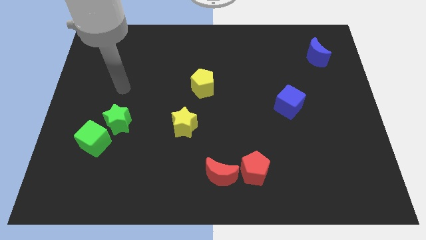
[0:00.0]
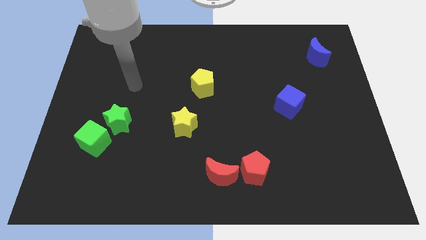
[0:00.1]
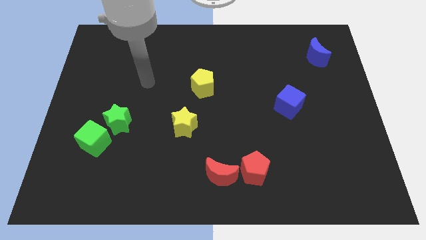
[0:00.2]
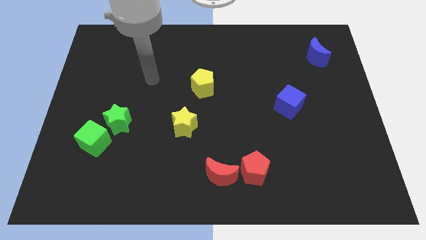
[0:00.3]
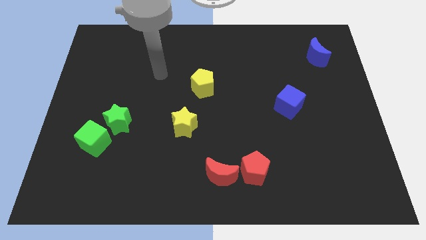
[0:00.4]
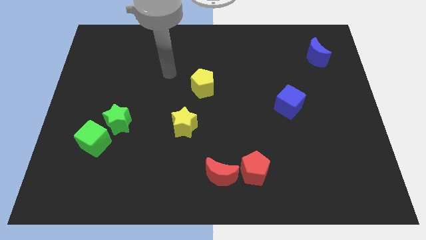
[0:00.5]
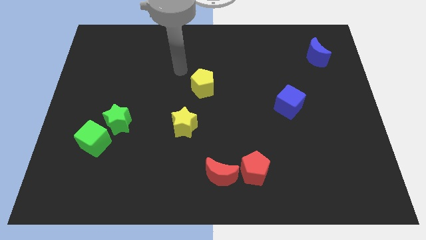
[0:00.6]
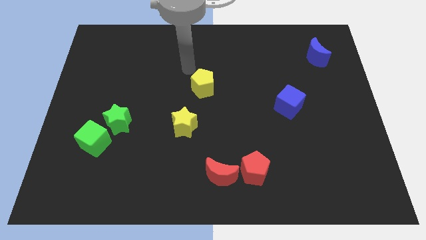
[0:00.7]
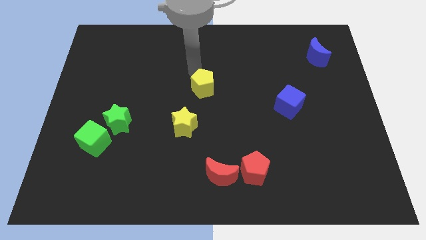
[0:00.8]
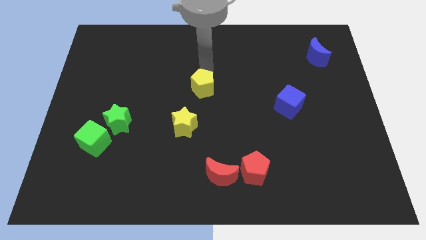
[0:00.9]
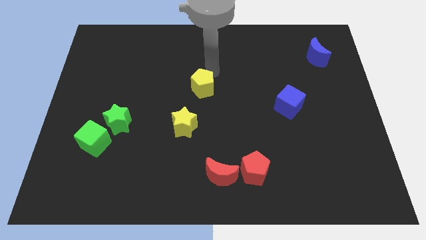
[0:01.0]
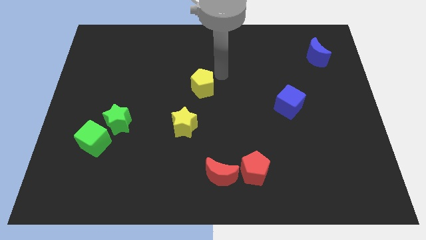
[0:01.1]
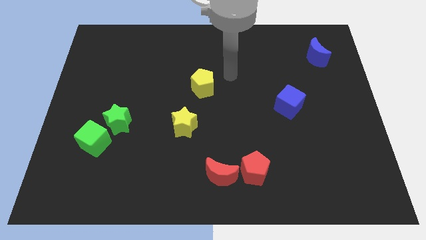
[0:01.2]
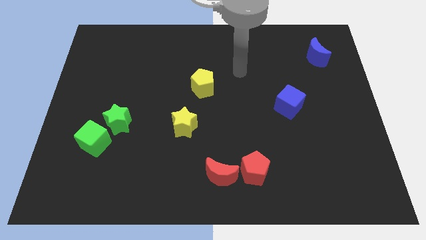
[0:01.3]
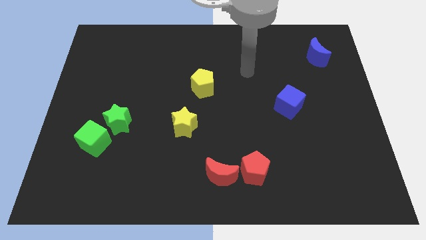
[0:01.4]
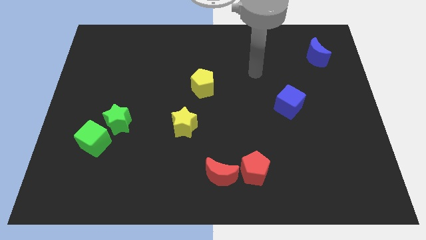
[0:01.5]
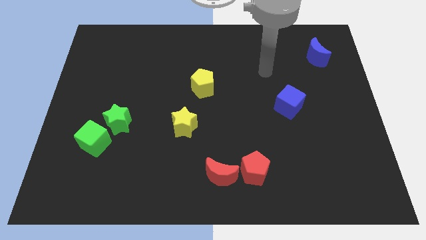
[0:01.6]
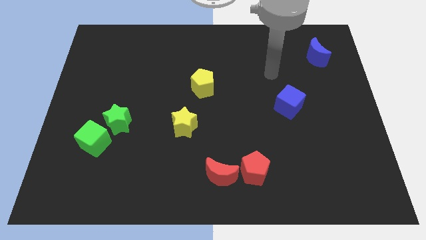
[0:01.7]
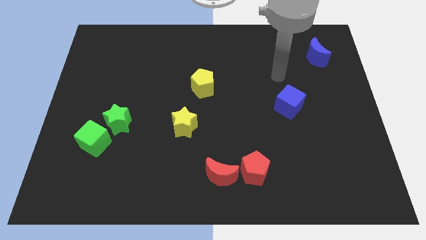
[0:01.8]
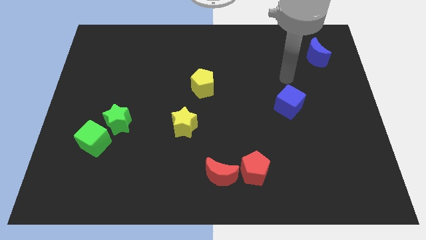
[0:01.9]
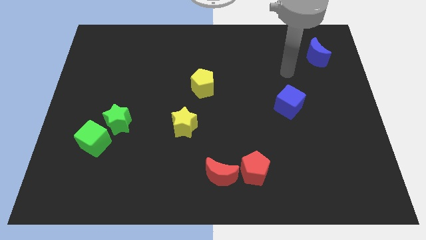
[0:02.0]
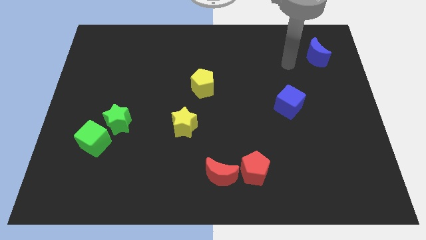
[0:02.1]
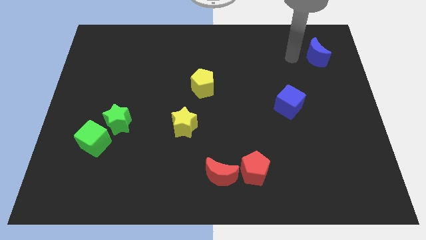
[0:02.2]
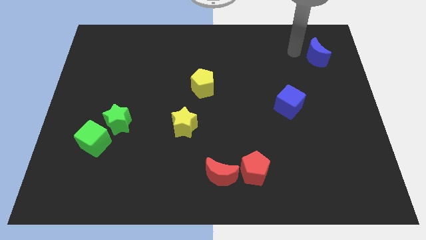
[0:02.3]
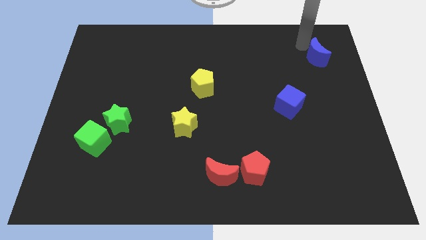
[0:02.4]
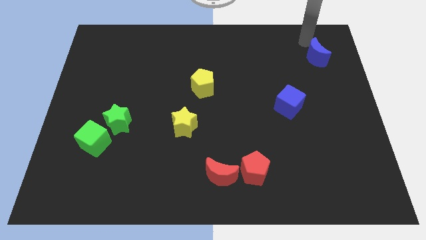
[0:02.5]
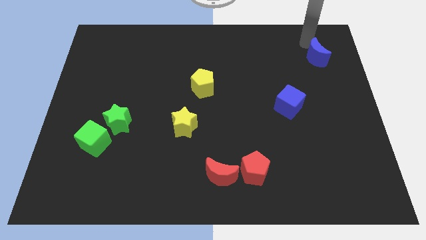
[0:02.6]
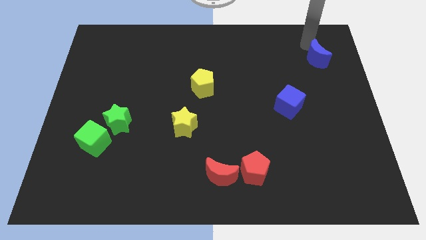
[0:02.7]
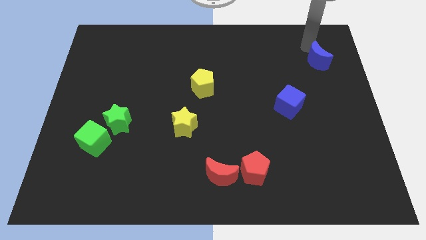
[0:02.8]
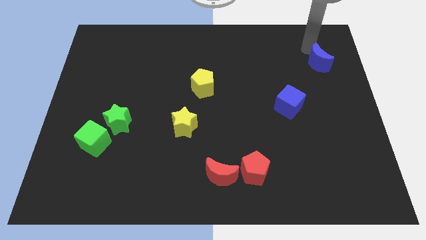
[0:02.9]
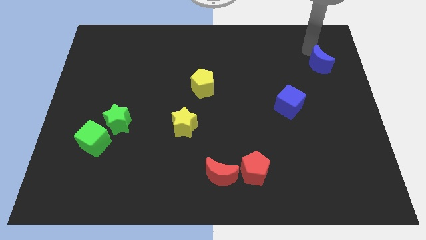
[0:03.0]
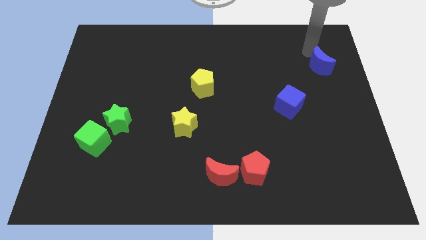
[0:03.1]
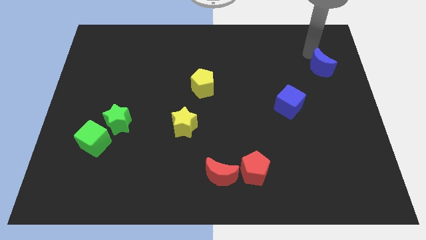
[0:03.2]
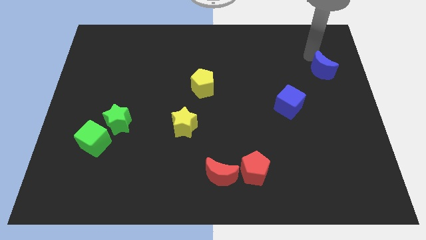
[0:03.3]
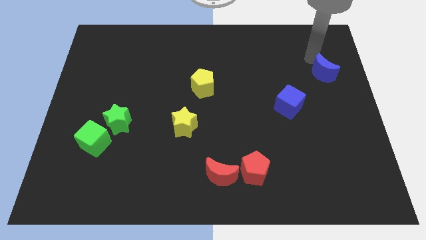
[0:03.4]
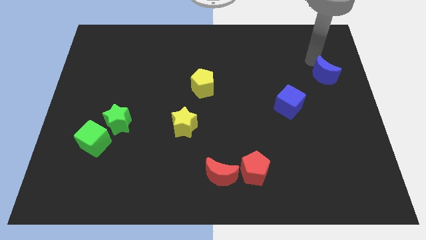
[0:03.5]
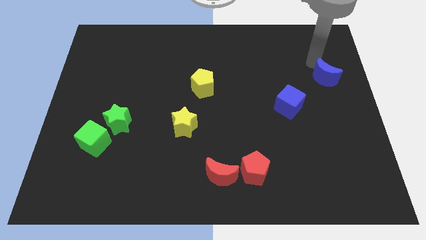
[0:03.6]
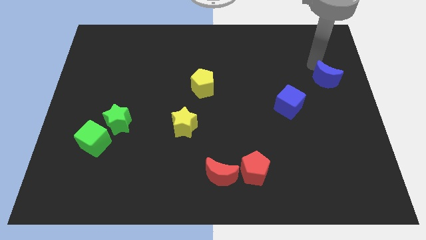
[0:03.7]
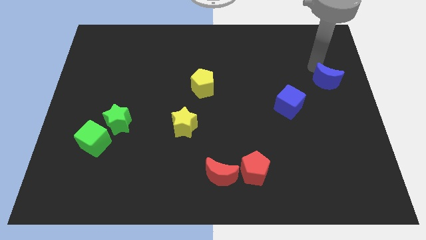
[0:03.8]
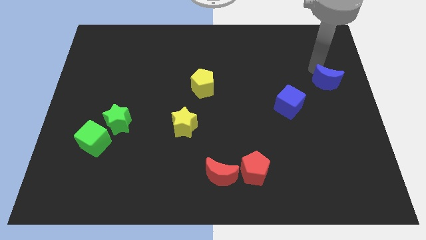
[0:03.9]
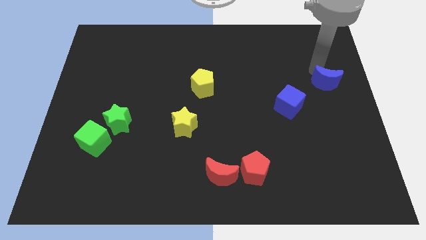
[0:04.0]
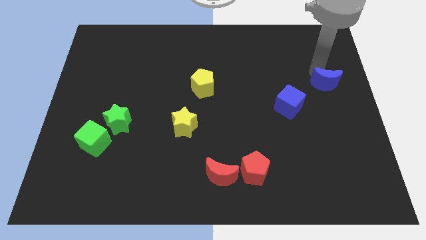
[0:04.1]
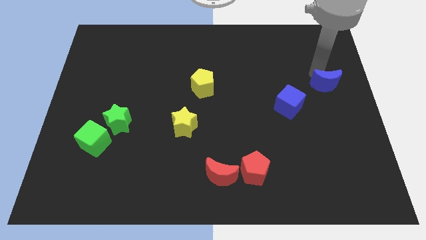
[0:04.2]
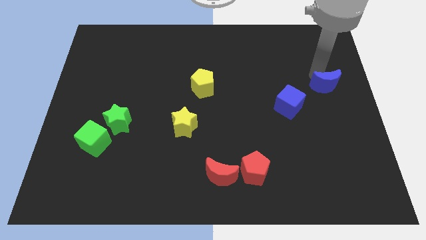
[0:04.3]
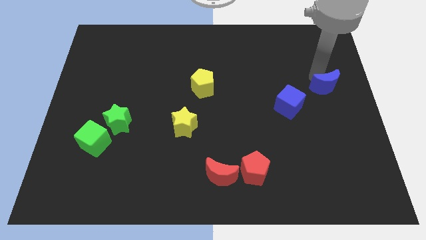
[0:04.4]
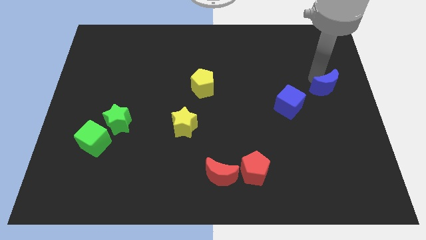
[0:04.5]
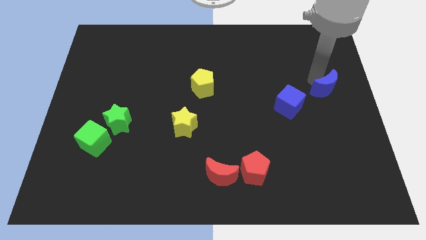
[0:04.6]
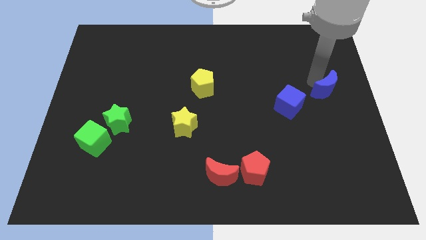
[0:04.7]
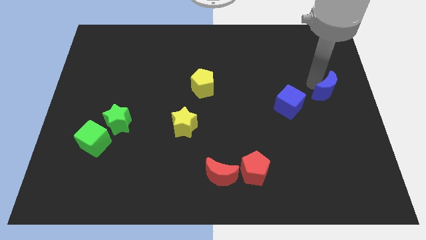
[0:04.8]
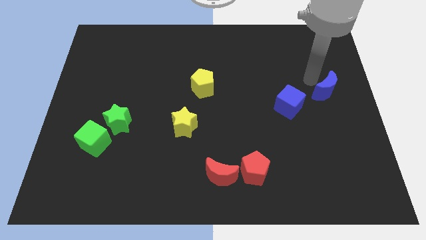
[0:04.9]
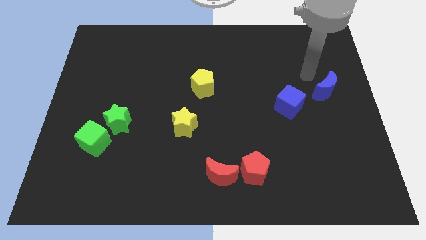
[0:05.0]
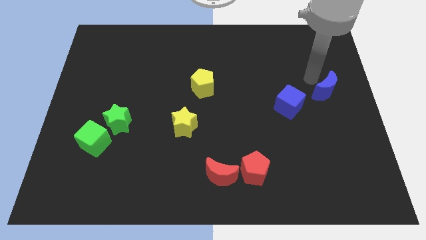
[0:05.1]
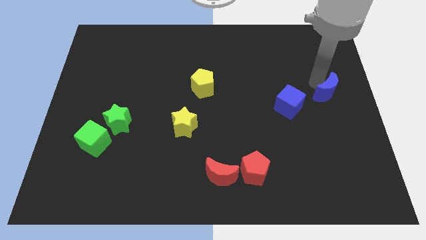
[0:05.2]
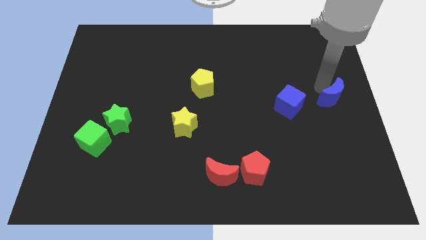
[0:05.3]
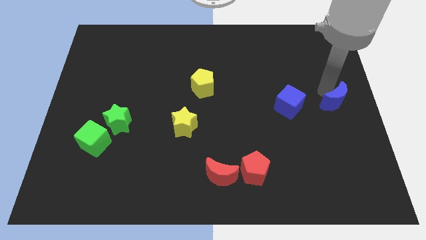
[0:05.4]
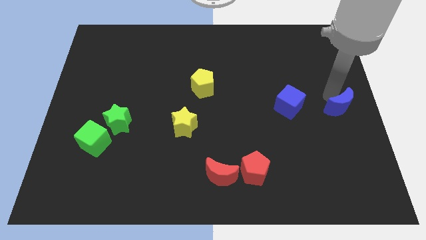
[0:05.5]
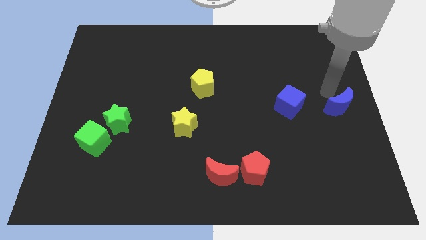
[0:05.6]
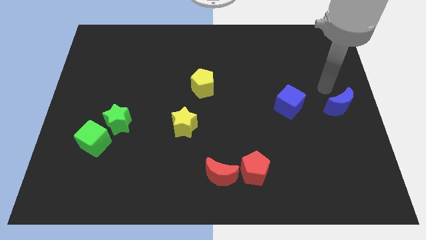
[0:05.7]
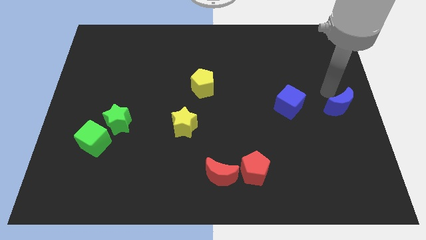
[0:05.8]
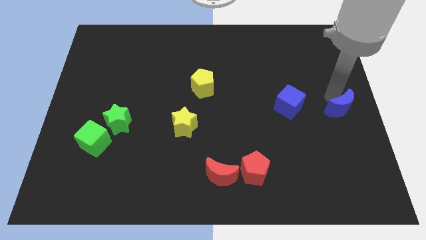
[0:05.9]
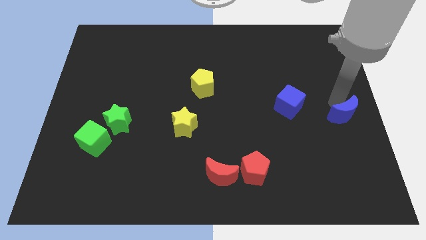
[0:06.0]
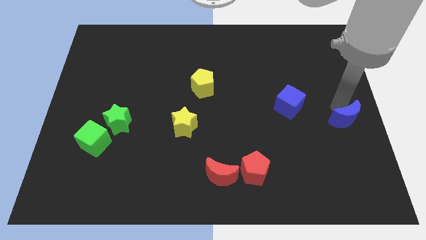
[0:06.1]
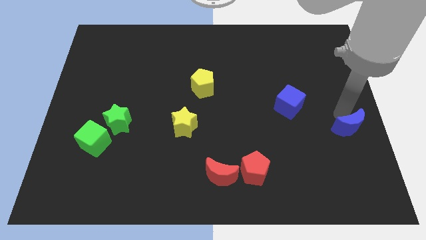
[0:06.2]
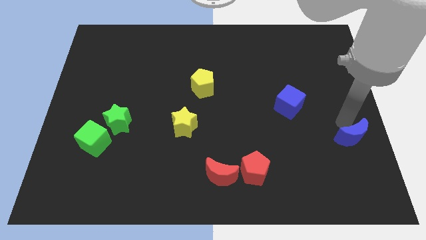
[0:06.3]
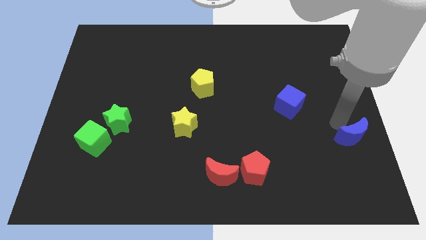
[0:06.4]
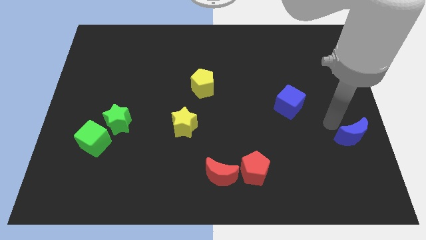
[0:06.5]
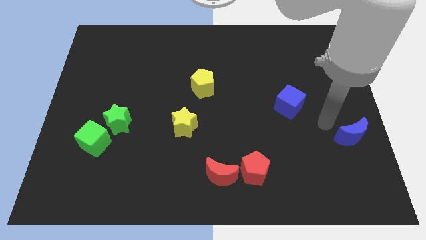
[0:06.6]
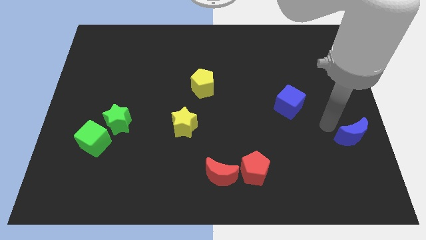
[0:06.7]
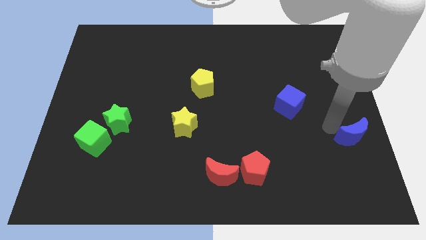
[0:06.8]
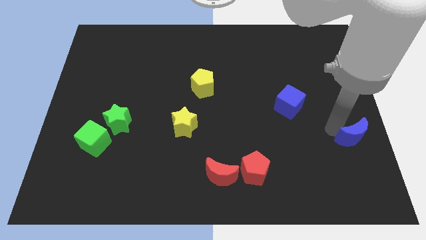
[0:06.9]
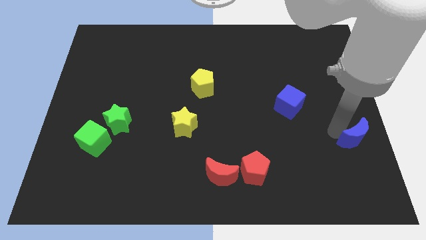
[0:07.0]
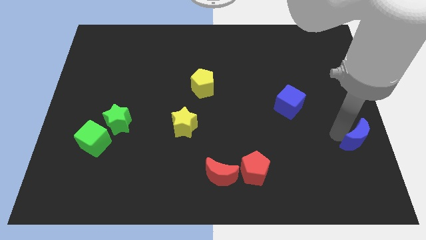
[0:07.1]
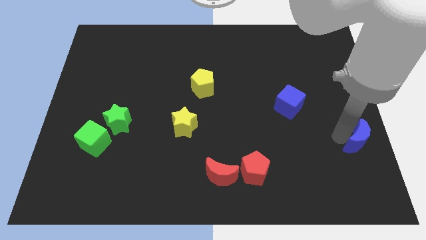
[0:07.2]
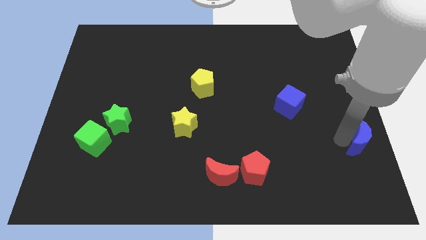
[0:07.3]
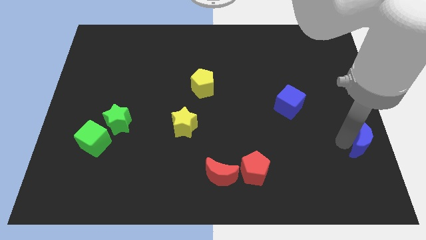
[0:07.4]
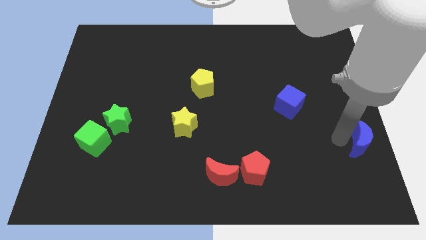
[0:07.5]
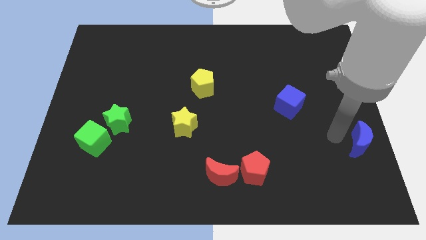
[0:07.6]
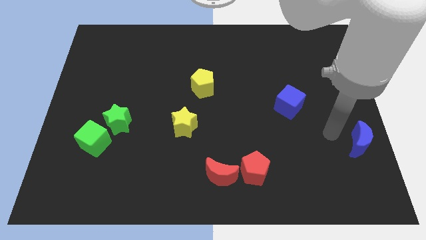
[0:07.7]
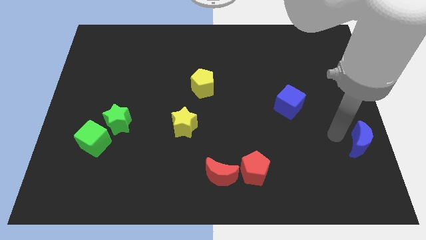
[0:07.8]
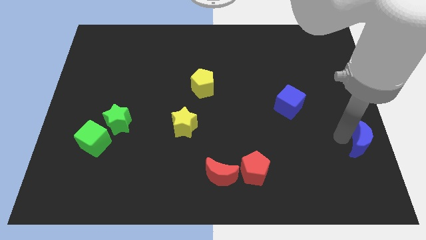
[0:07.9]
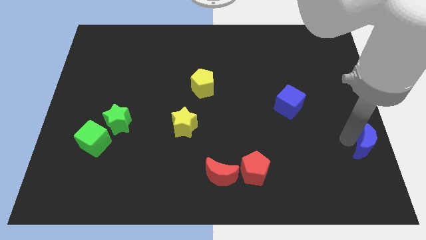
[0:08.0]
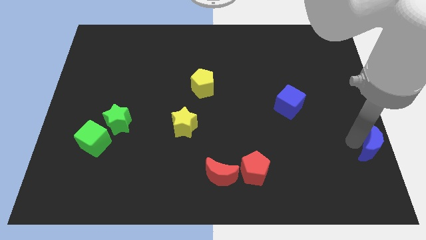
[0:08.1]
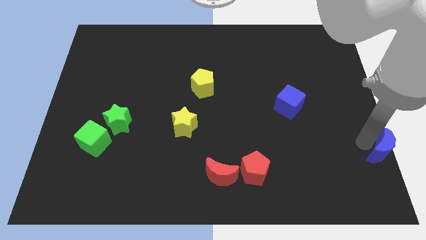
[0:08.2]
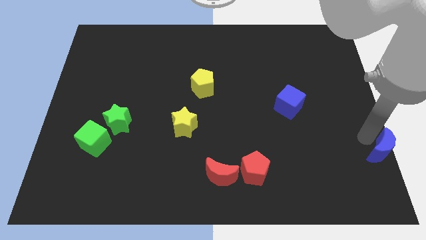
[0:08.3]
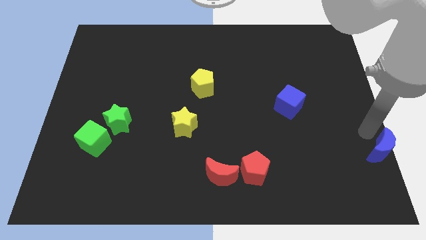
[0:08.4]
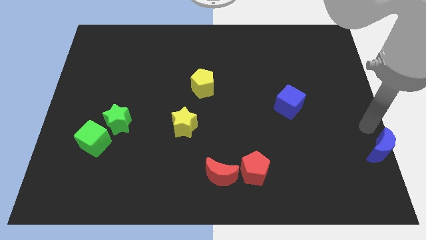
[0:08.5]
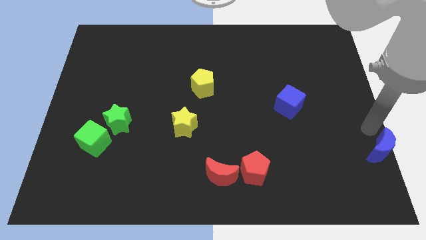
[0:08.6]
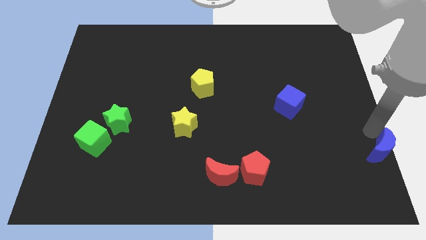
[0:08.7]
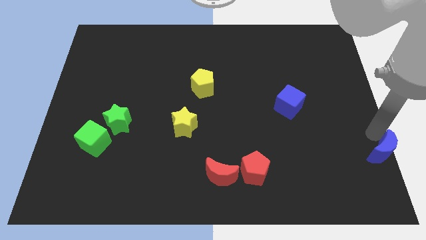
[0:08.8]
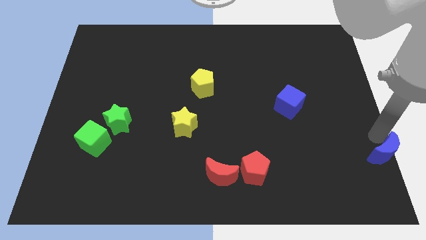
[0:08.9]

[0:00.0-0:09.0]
move the blue moon to the bottom right of the board
